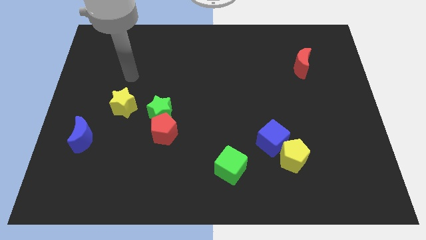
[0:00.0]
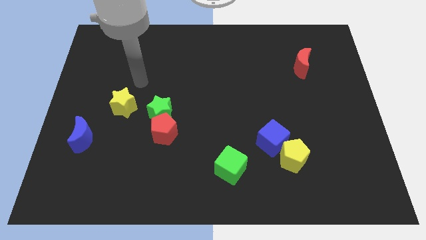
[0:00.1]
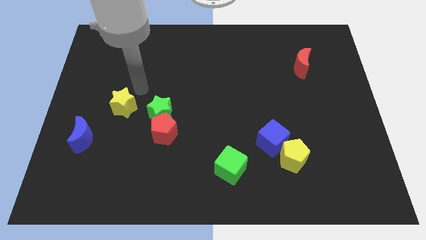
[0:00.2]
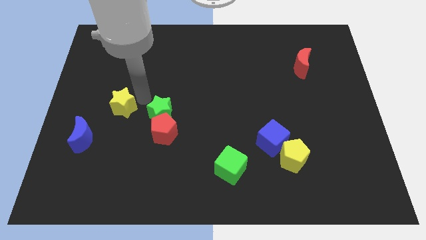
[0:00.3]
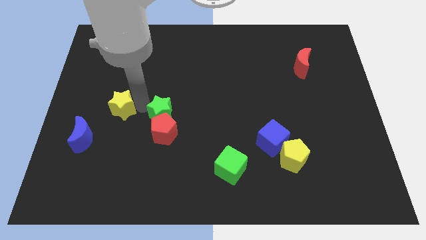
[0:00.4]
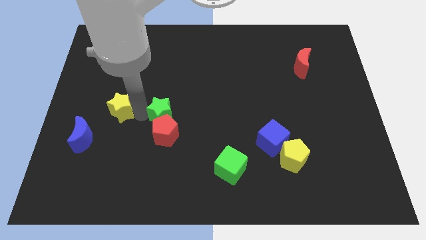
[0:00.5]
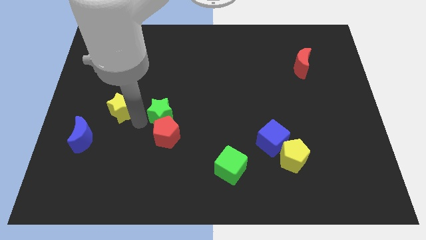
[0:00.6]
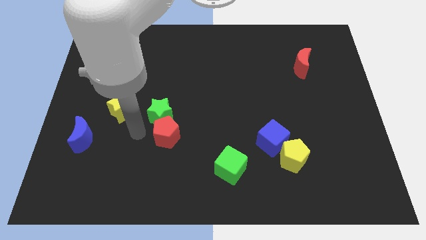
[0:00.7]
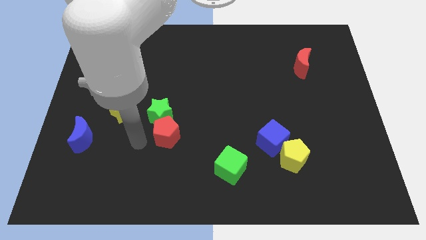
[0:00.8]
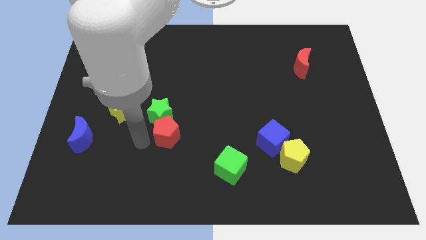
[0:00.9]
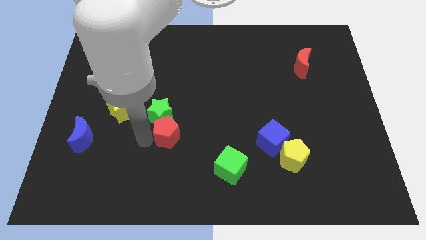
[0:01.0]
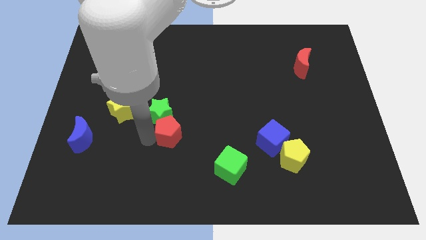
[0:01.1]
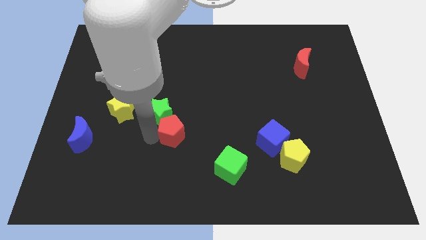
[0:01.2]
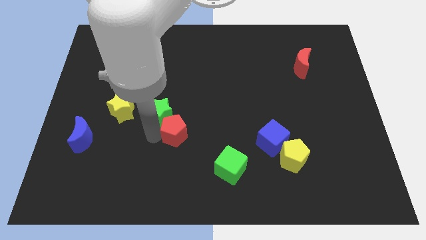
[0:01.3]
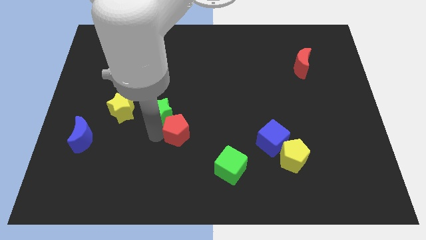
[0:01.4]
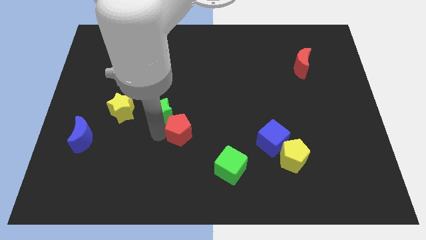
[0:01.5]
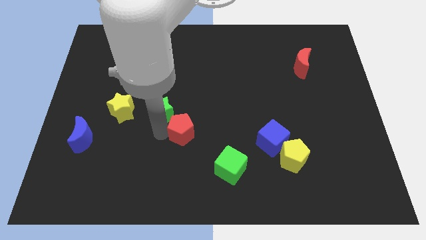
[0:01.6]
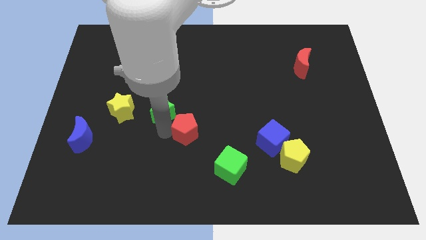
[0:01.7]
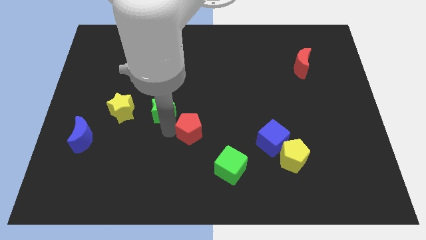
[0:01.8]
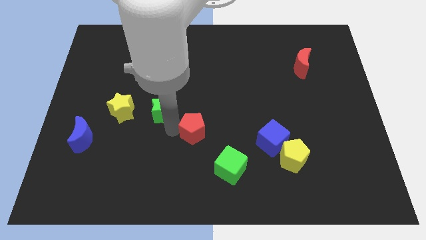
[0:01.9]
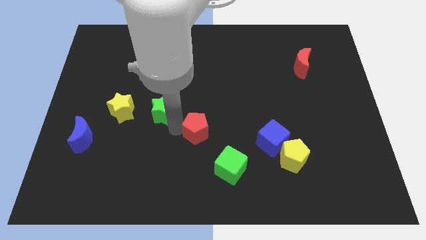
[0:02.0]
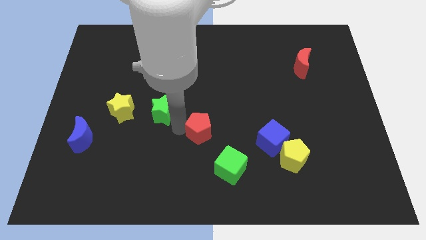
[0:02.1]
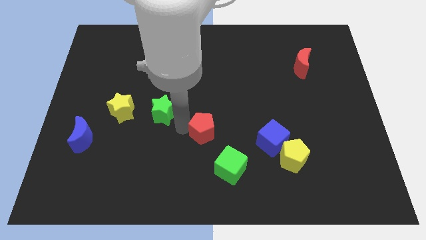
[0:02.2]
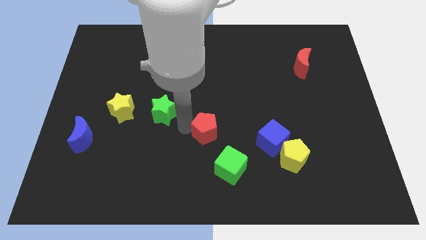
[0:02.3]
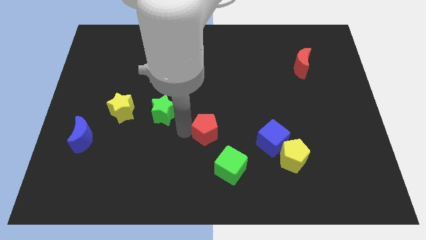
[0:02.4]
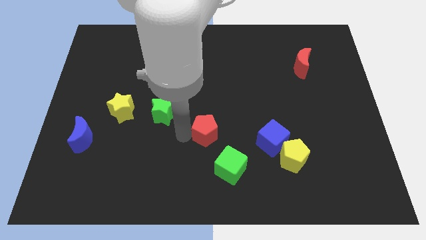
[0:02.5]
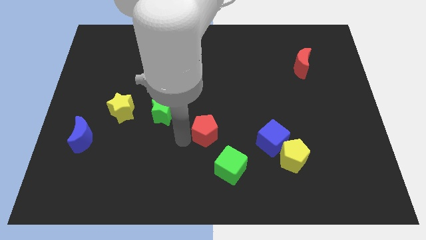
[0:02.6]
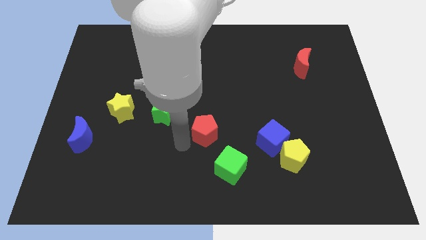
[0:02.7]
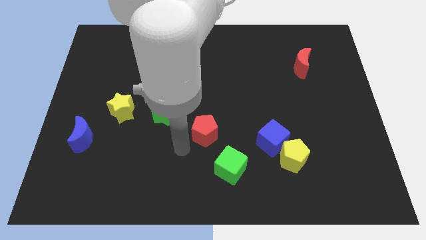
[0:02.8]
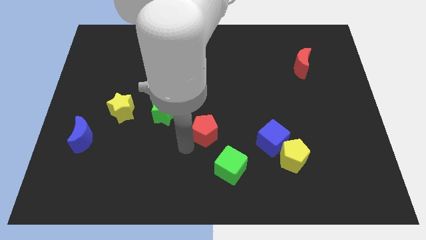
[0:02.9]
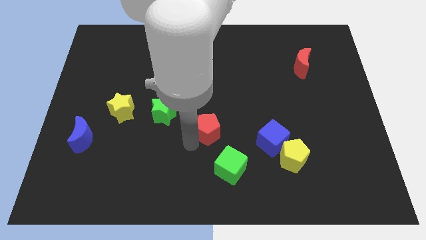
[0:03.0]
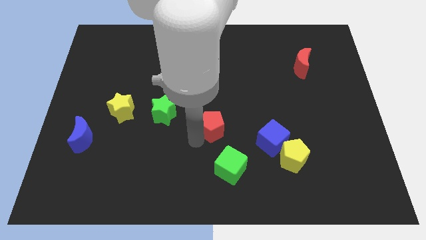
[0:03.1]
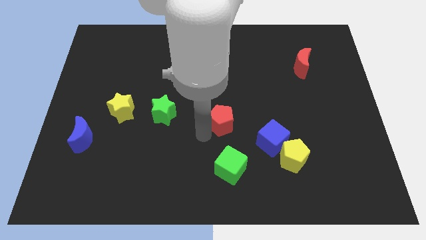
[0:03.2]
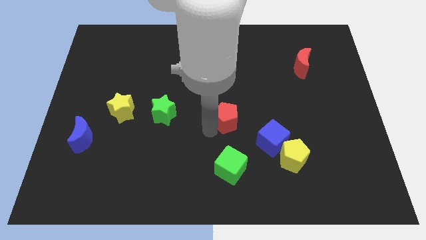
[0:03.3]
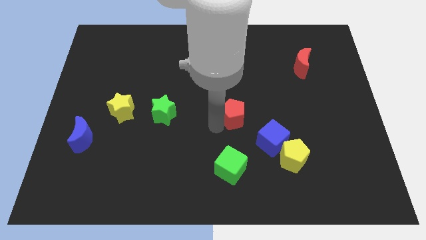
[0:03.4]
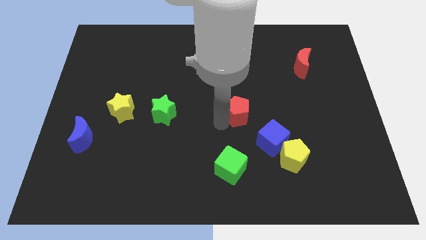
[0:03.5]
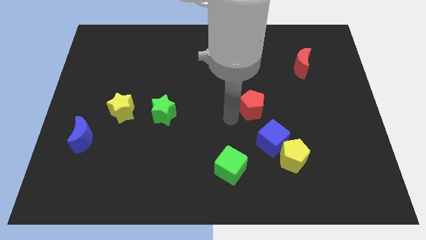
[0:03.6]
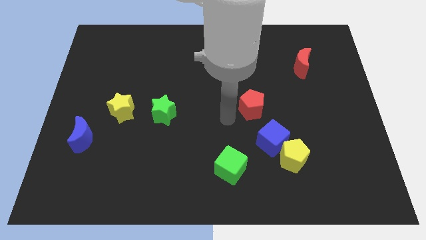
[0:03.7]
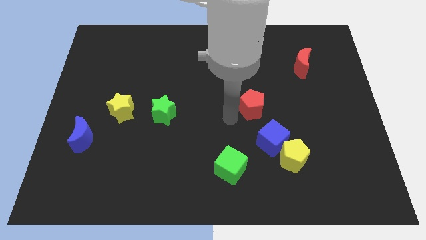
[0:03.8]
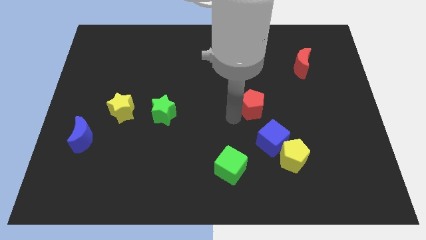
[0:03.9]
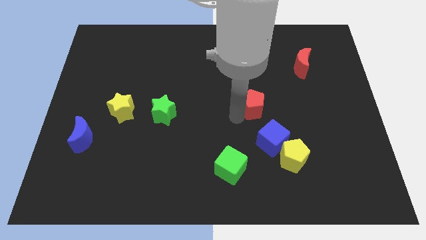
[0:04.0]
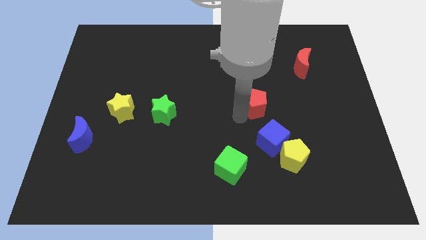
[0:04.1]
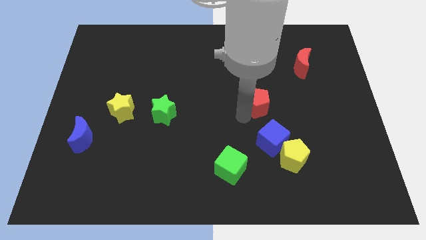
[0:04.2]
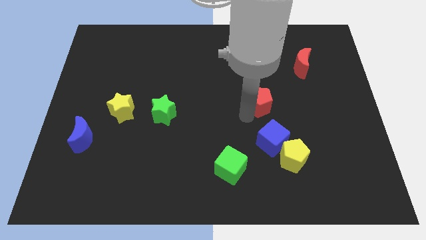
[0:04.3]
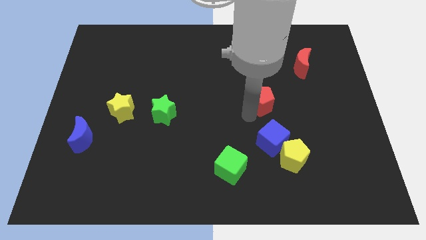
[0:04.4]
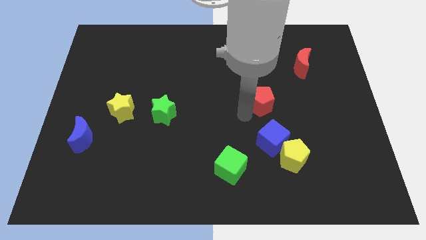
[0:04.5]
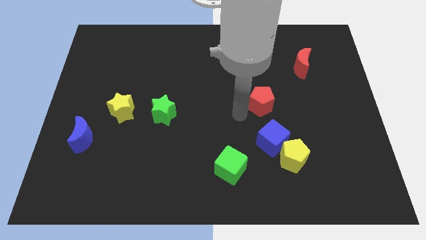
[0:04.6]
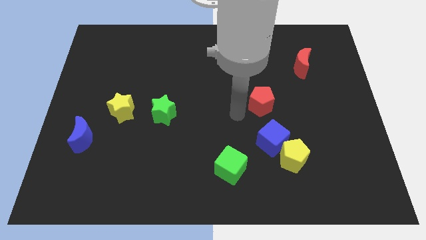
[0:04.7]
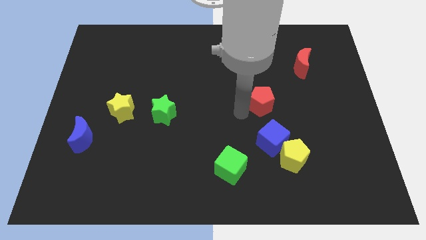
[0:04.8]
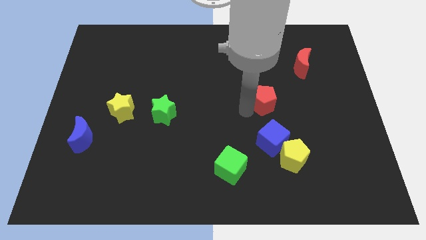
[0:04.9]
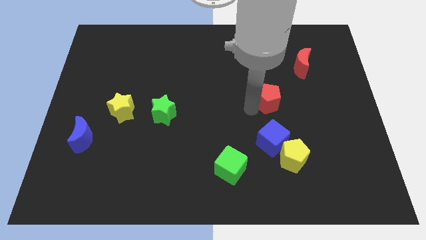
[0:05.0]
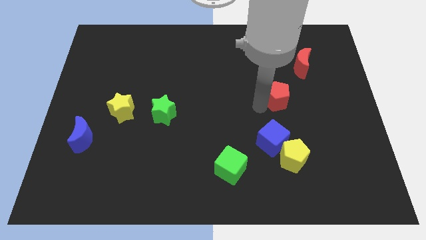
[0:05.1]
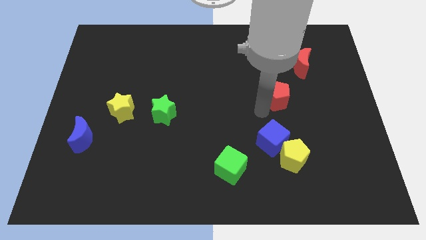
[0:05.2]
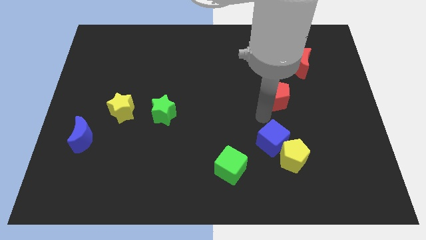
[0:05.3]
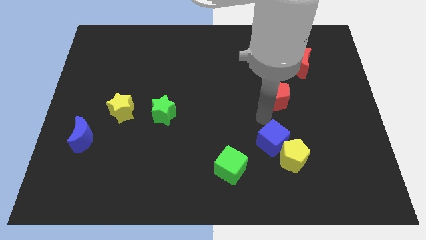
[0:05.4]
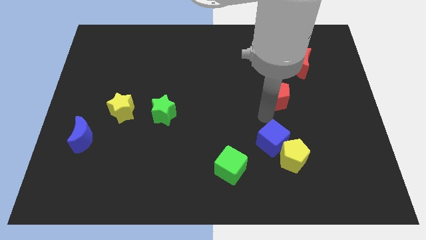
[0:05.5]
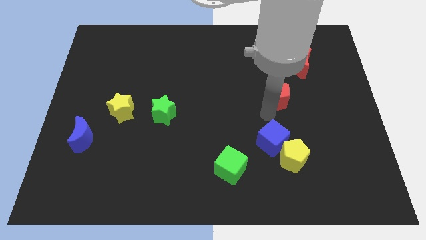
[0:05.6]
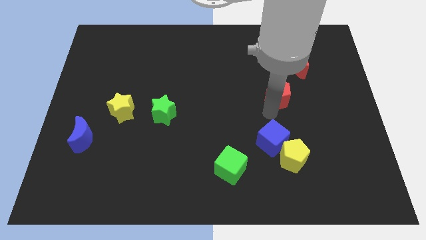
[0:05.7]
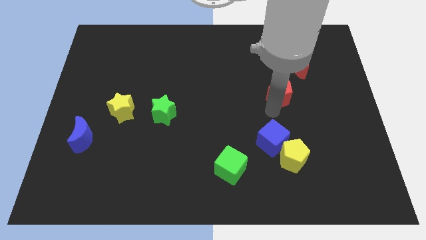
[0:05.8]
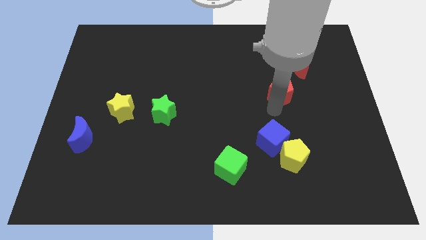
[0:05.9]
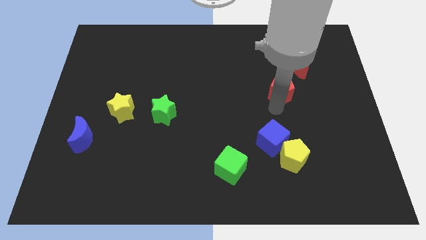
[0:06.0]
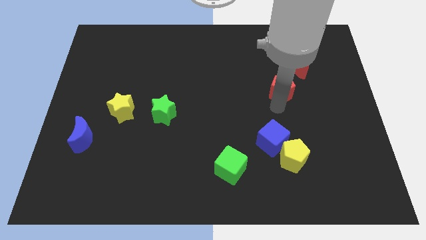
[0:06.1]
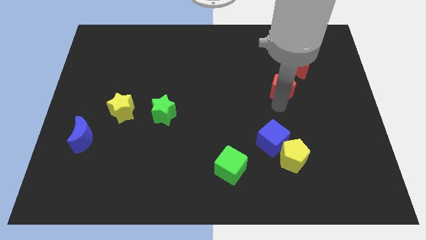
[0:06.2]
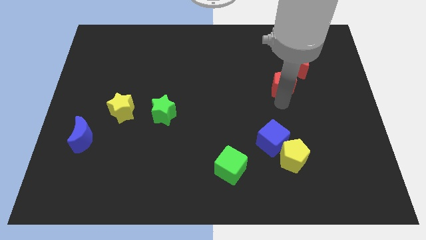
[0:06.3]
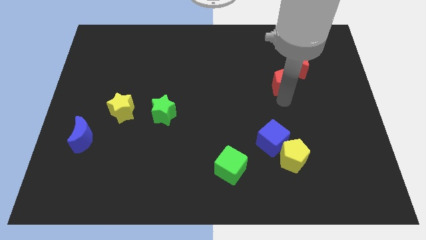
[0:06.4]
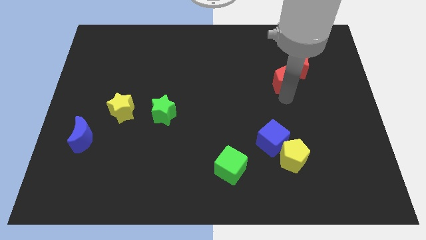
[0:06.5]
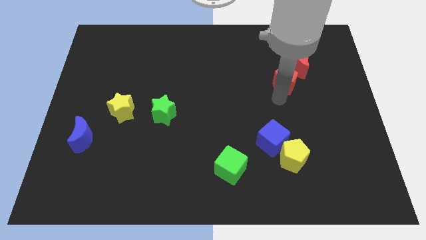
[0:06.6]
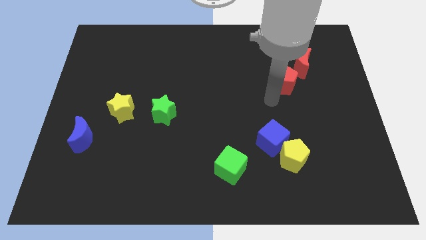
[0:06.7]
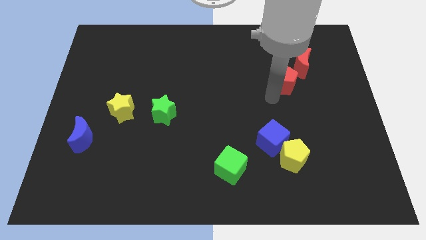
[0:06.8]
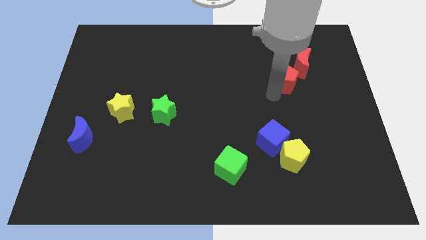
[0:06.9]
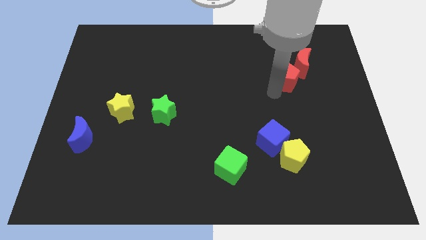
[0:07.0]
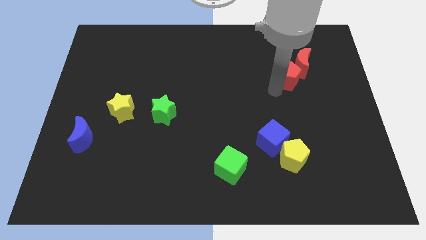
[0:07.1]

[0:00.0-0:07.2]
put the red pentagon to the red moon
